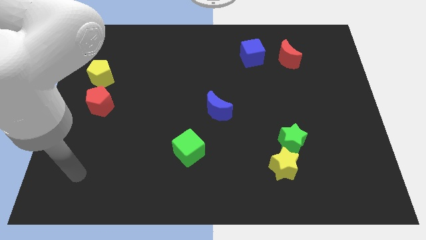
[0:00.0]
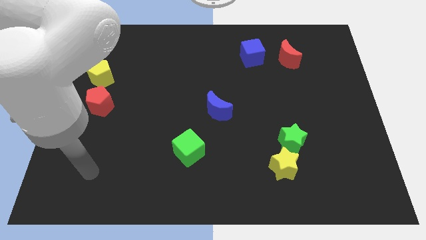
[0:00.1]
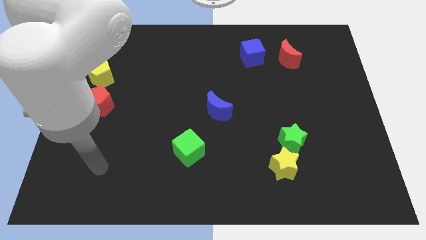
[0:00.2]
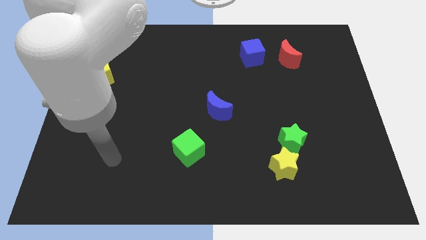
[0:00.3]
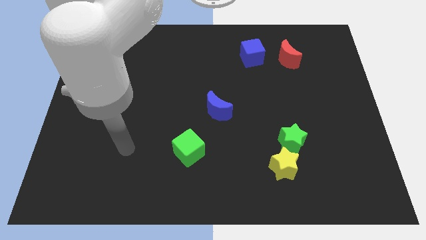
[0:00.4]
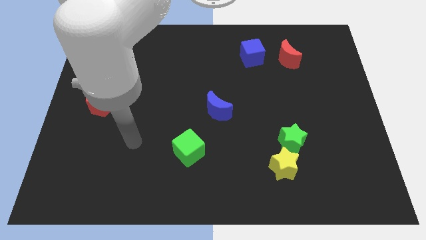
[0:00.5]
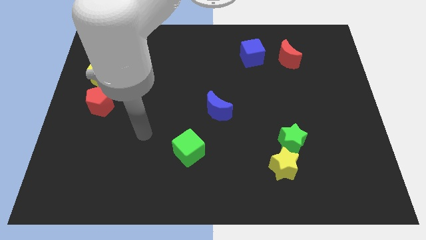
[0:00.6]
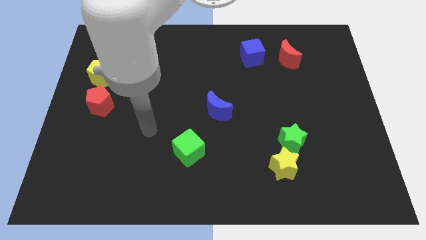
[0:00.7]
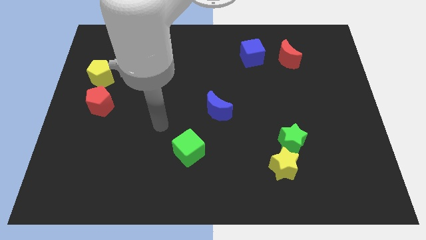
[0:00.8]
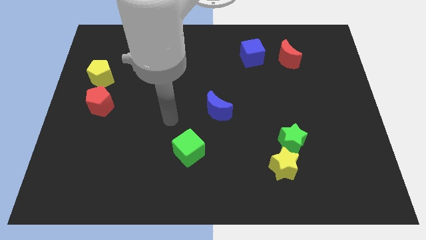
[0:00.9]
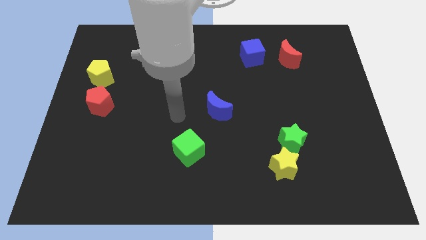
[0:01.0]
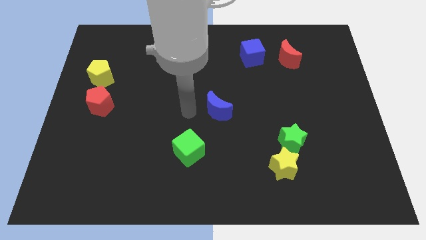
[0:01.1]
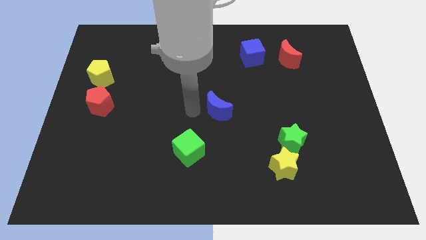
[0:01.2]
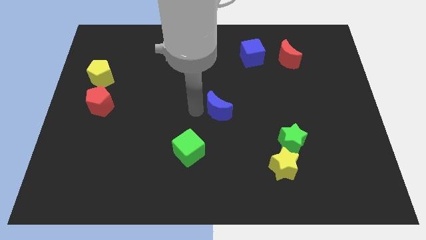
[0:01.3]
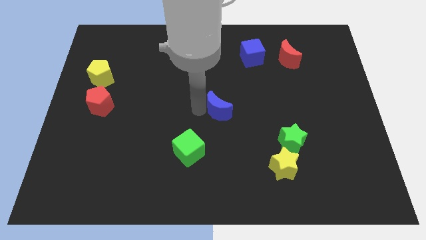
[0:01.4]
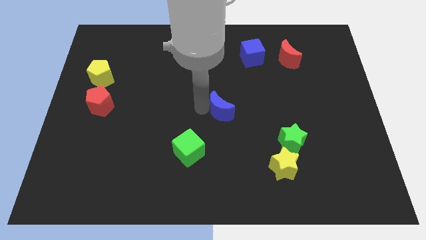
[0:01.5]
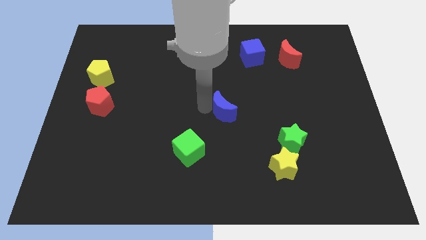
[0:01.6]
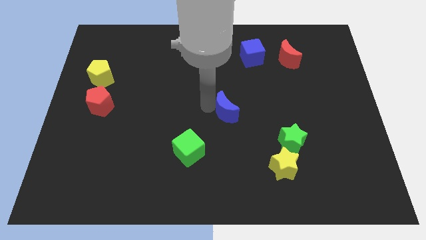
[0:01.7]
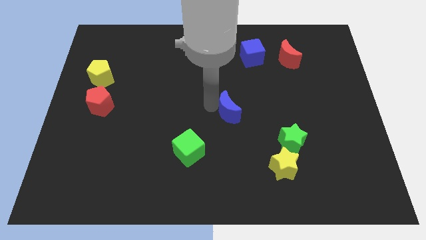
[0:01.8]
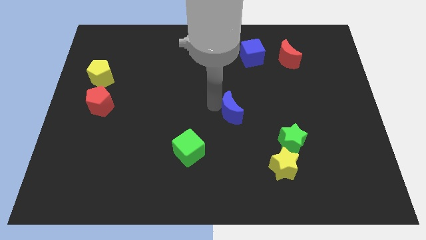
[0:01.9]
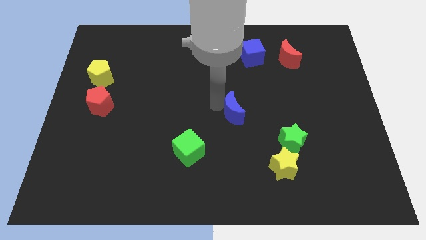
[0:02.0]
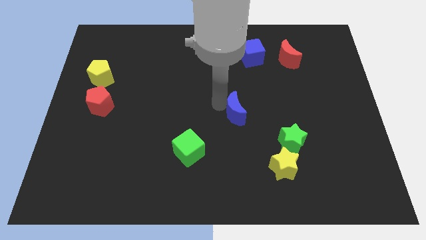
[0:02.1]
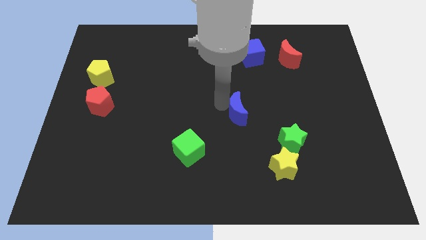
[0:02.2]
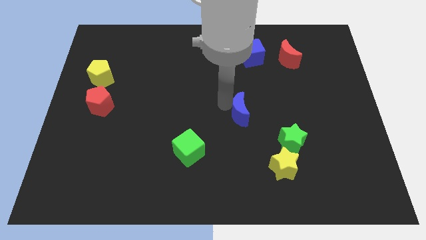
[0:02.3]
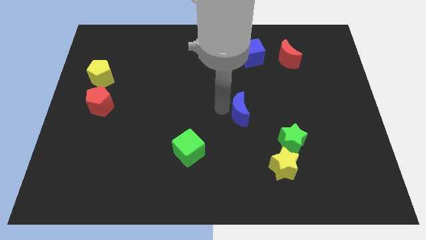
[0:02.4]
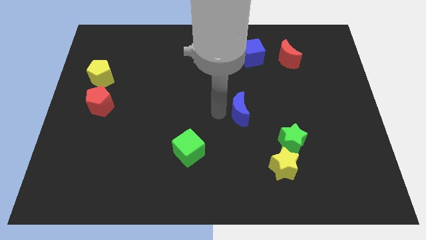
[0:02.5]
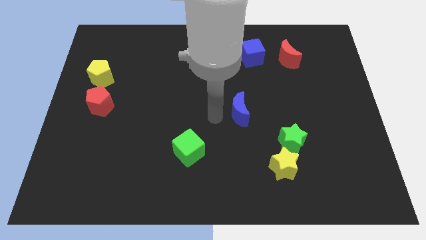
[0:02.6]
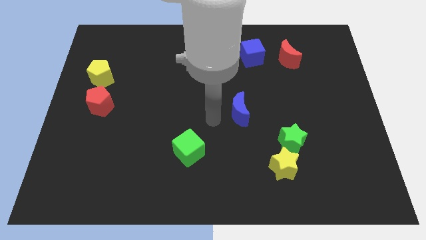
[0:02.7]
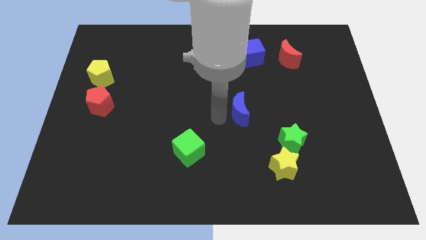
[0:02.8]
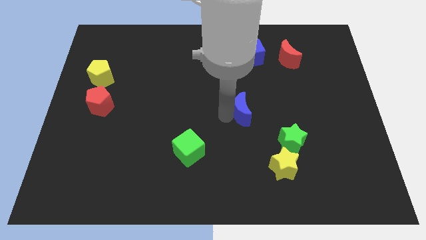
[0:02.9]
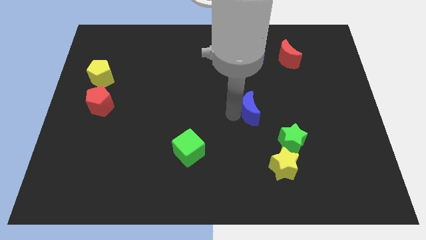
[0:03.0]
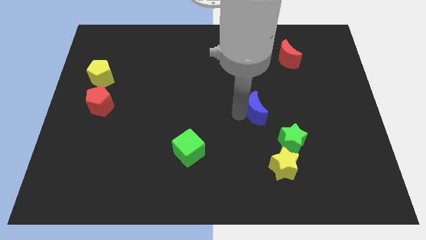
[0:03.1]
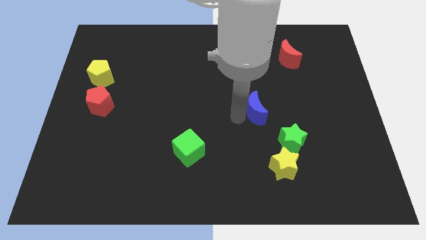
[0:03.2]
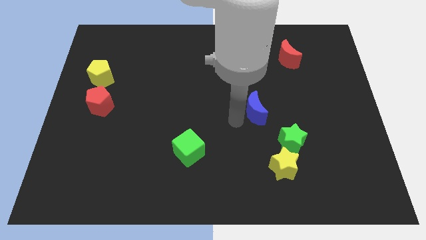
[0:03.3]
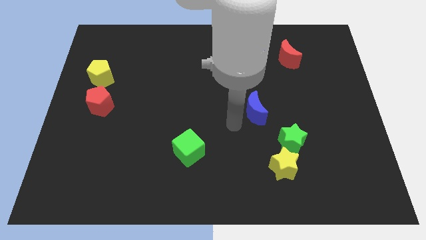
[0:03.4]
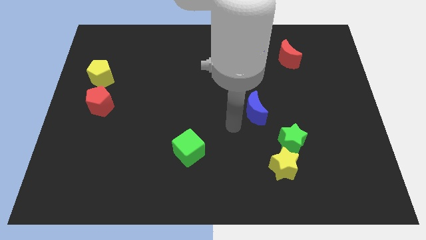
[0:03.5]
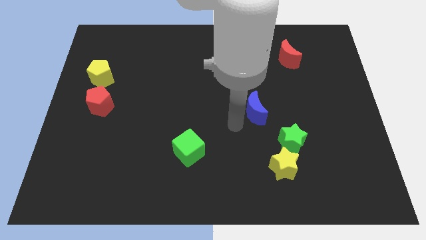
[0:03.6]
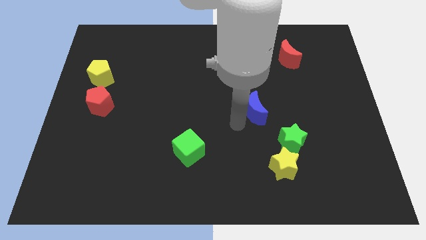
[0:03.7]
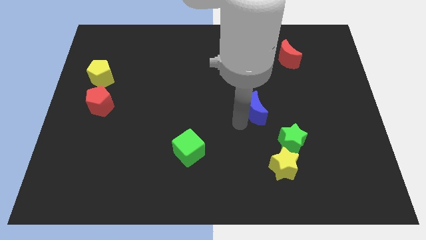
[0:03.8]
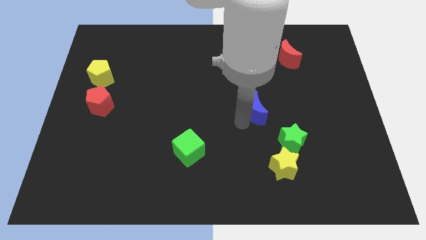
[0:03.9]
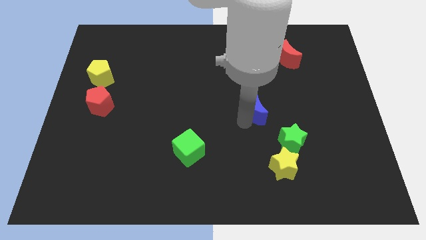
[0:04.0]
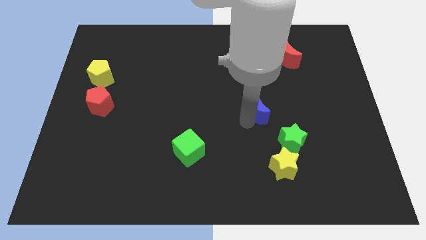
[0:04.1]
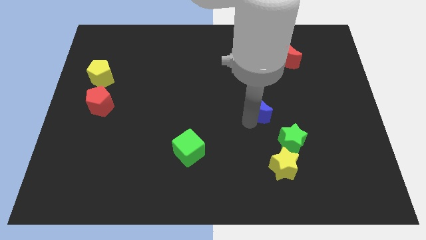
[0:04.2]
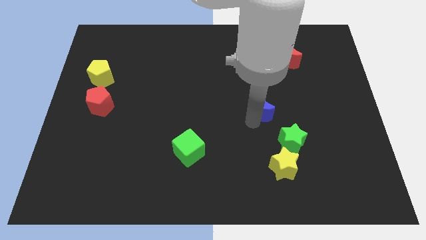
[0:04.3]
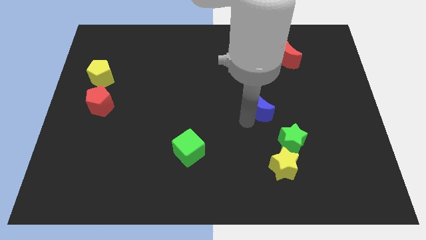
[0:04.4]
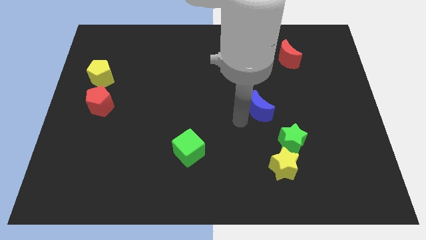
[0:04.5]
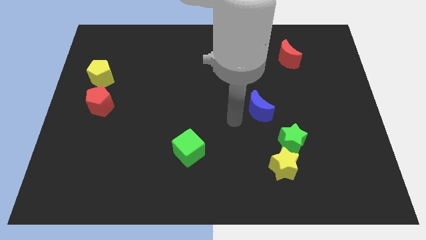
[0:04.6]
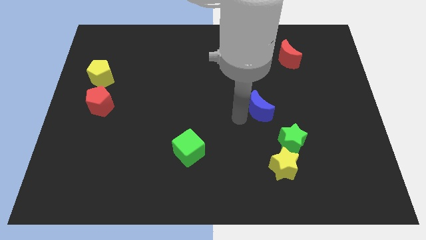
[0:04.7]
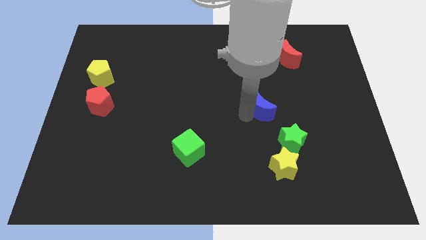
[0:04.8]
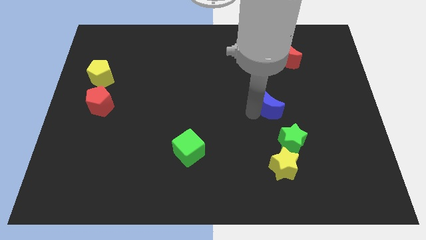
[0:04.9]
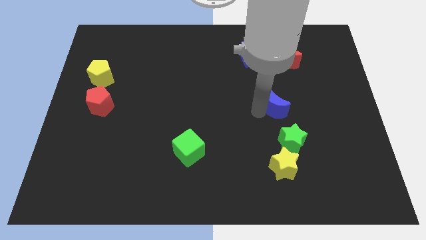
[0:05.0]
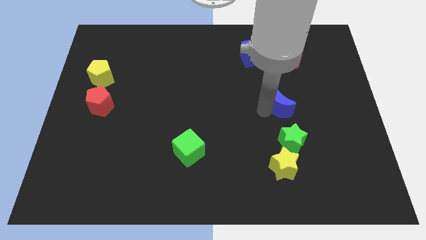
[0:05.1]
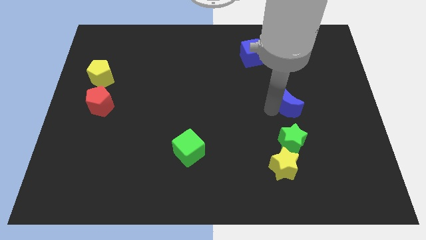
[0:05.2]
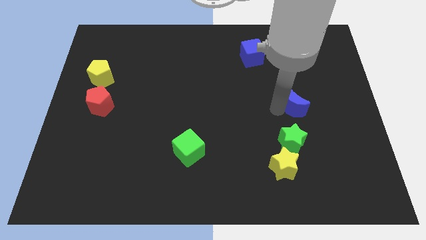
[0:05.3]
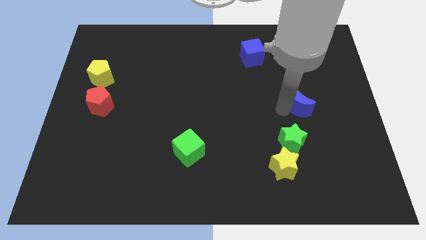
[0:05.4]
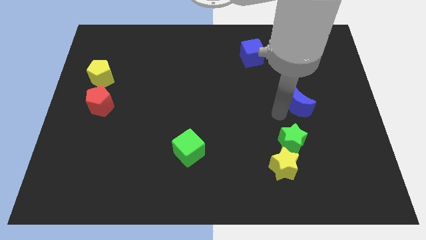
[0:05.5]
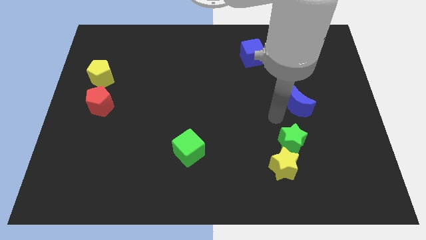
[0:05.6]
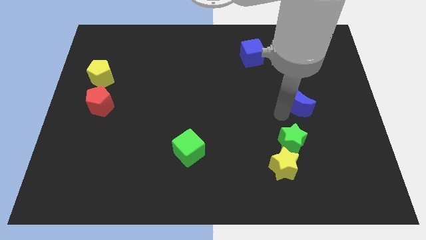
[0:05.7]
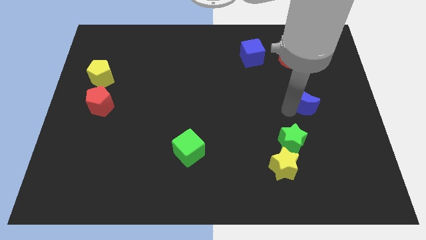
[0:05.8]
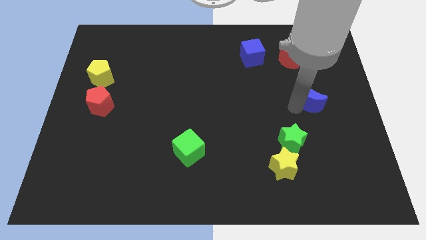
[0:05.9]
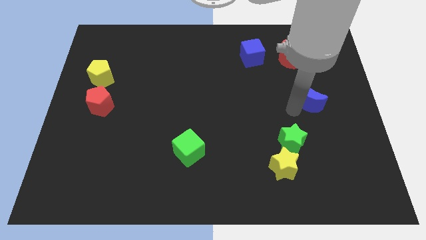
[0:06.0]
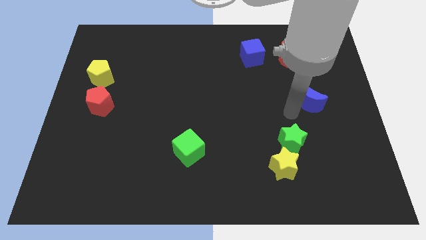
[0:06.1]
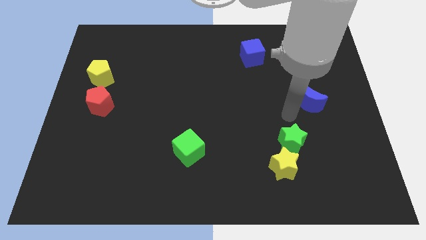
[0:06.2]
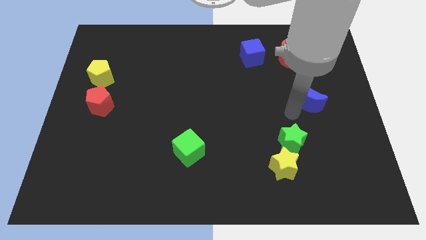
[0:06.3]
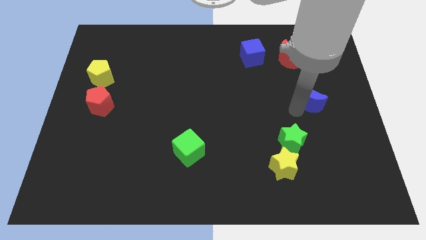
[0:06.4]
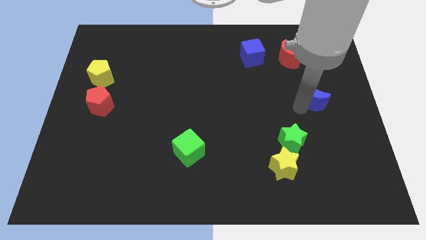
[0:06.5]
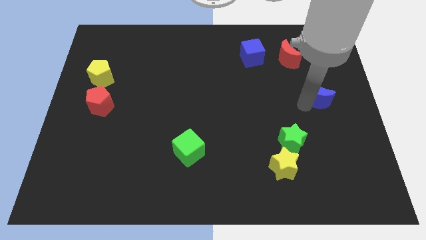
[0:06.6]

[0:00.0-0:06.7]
move the blue moon to the right side
